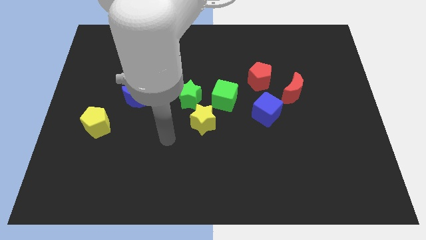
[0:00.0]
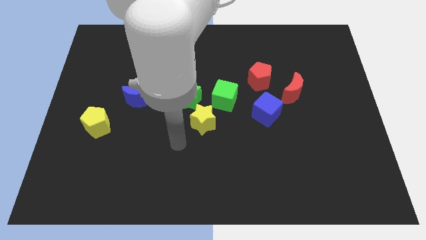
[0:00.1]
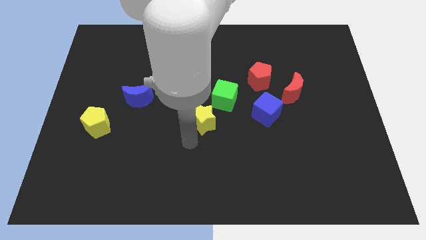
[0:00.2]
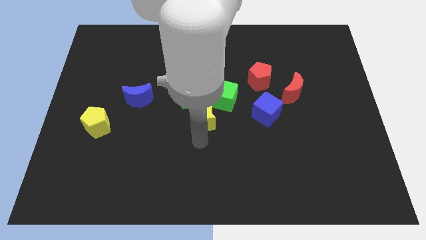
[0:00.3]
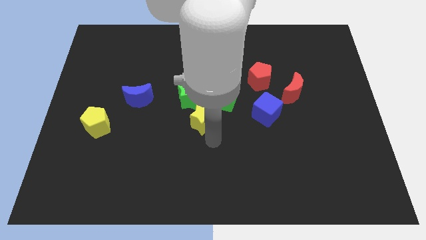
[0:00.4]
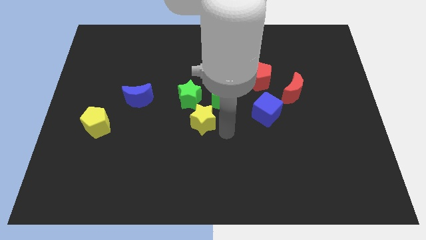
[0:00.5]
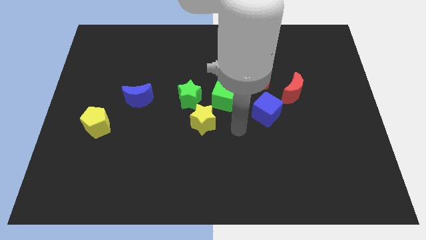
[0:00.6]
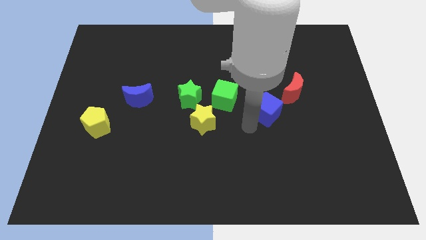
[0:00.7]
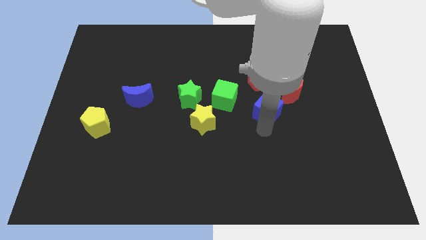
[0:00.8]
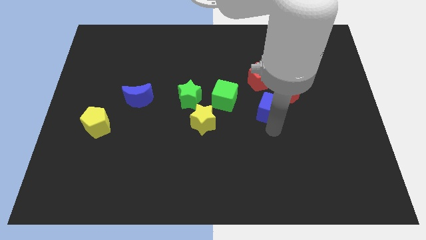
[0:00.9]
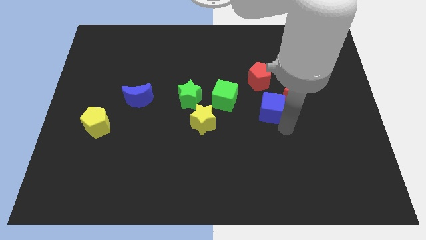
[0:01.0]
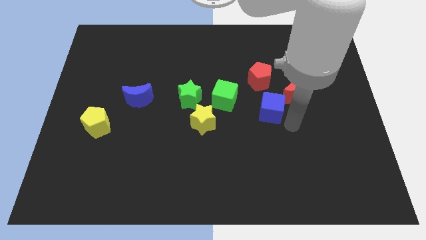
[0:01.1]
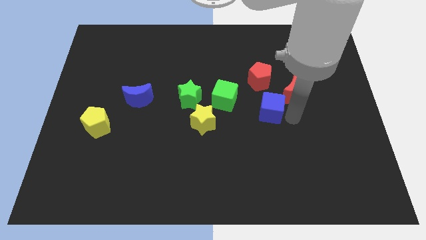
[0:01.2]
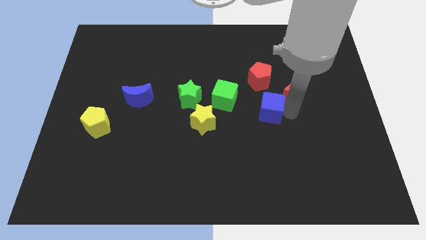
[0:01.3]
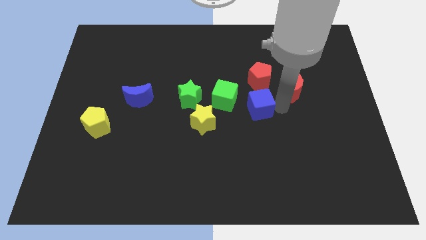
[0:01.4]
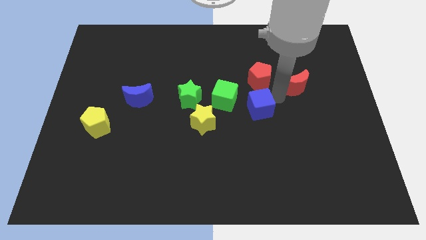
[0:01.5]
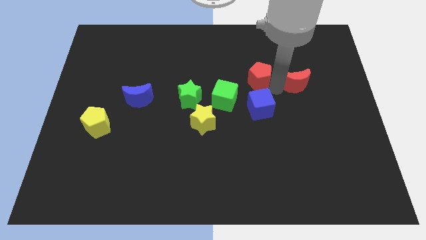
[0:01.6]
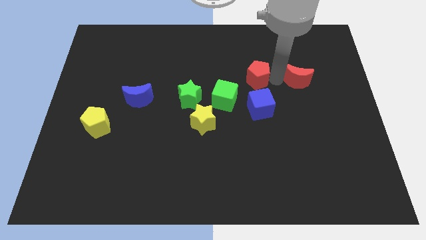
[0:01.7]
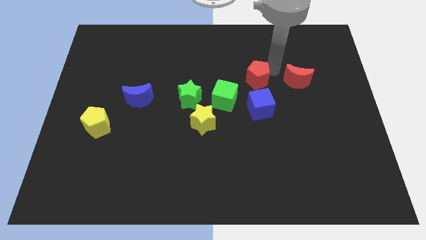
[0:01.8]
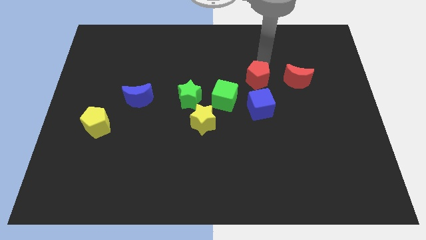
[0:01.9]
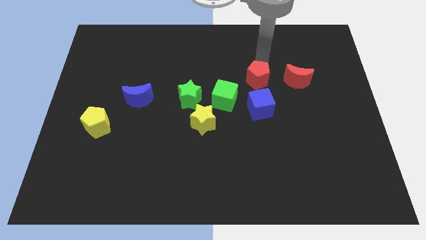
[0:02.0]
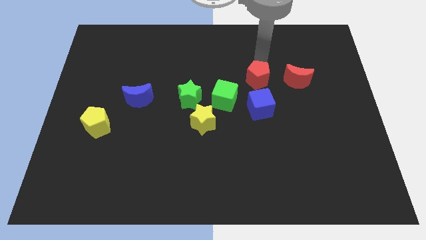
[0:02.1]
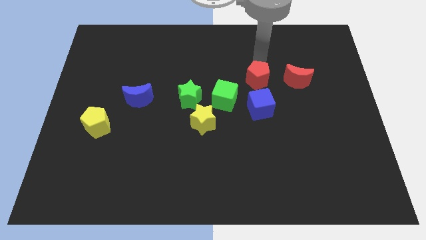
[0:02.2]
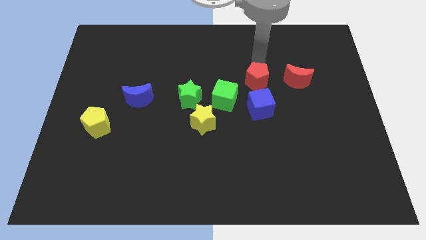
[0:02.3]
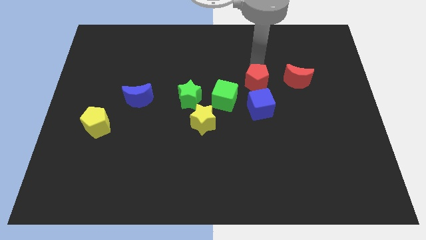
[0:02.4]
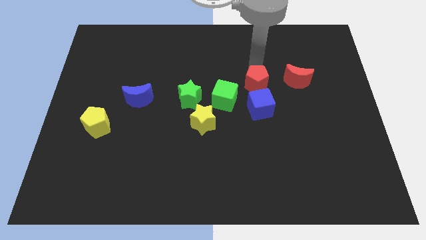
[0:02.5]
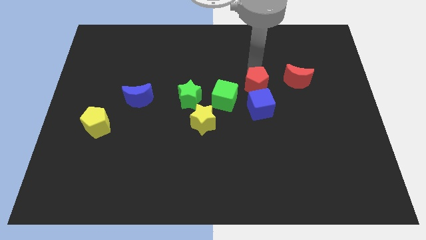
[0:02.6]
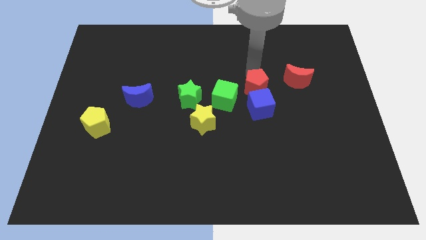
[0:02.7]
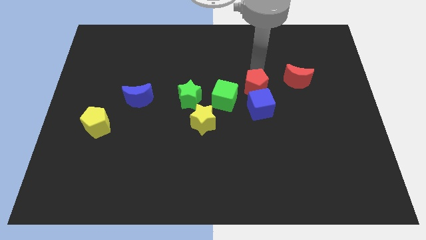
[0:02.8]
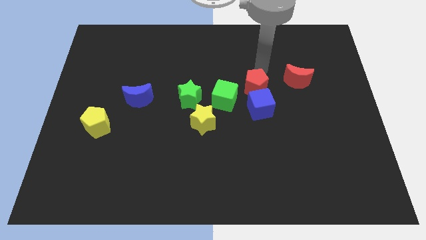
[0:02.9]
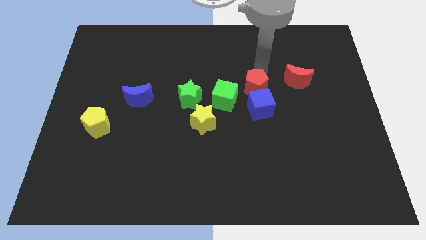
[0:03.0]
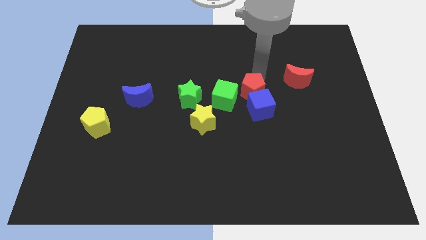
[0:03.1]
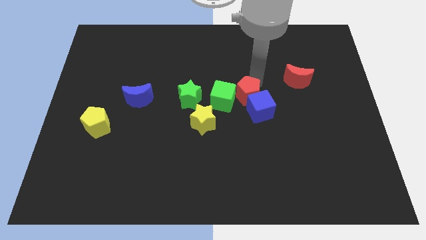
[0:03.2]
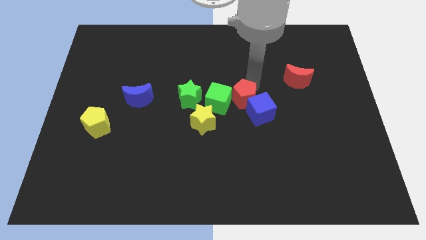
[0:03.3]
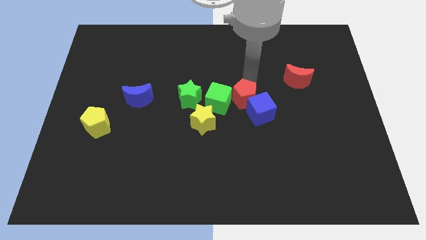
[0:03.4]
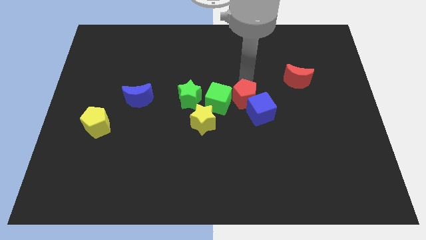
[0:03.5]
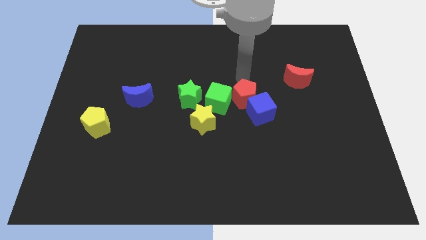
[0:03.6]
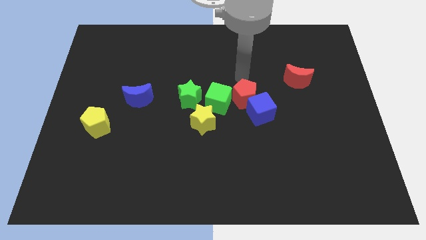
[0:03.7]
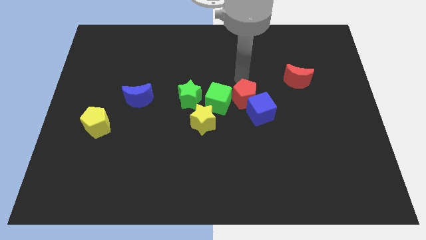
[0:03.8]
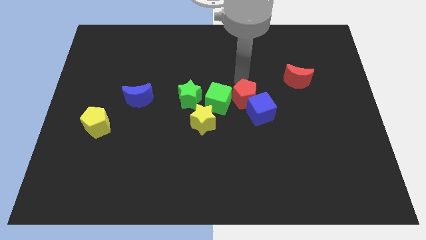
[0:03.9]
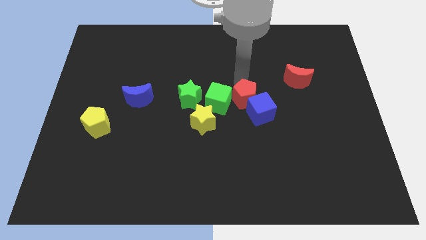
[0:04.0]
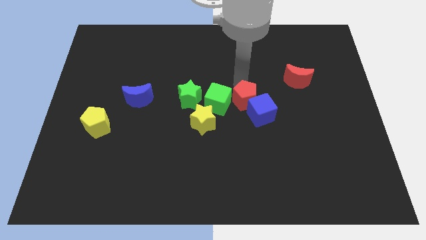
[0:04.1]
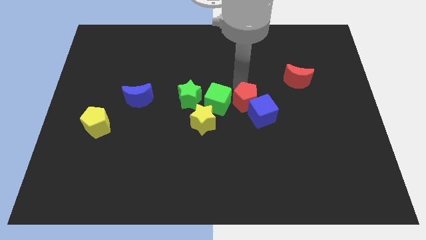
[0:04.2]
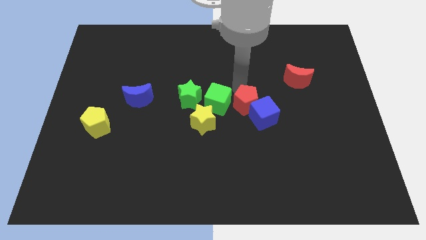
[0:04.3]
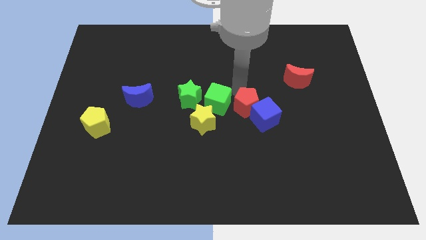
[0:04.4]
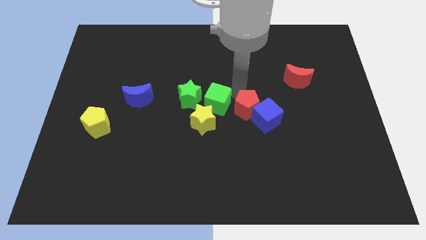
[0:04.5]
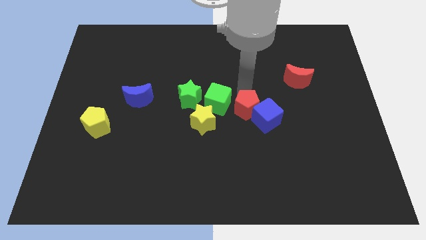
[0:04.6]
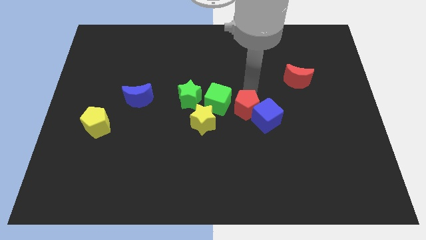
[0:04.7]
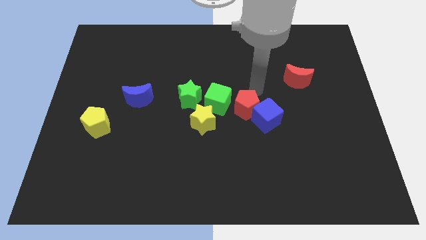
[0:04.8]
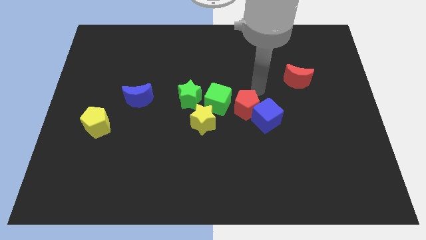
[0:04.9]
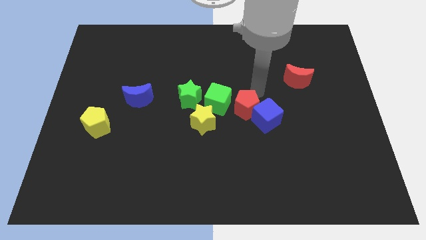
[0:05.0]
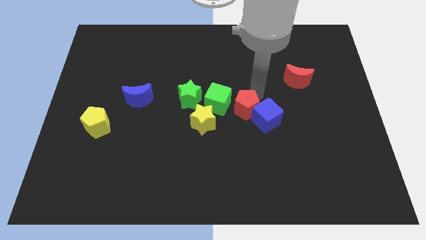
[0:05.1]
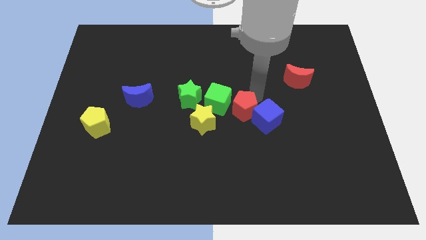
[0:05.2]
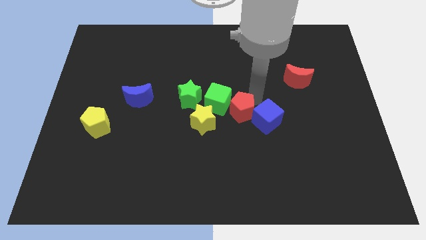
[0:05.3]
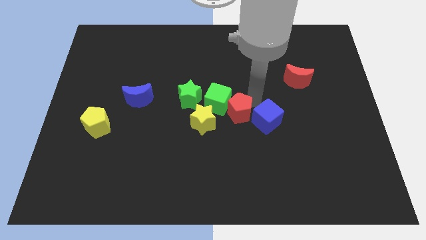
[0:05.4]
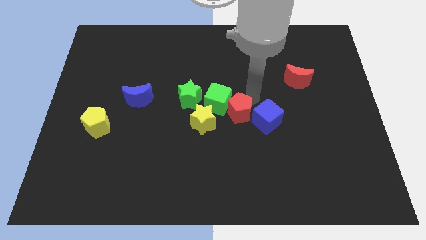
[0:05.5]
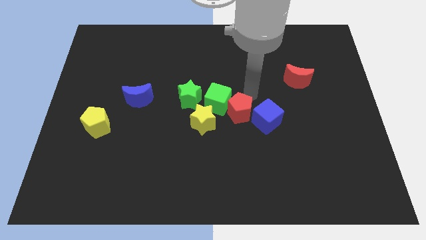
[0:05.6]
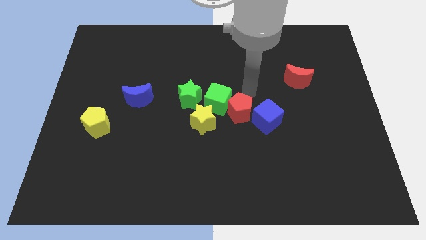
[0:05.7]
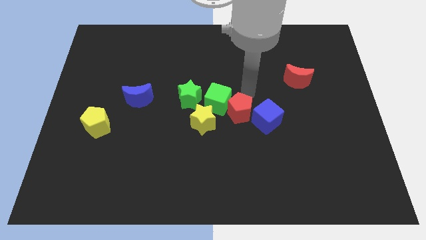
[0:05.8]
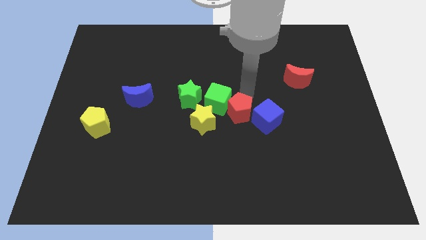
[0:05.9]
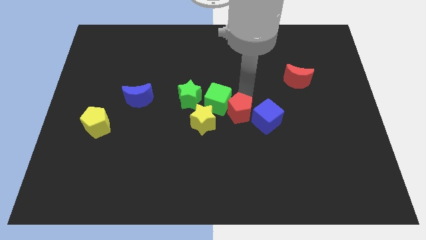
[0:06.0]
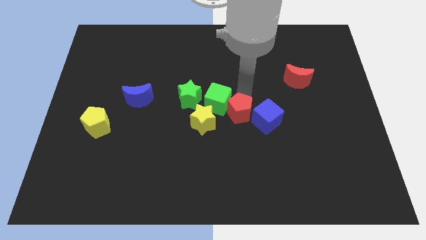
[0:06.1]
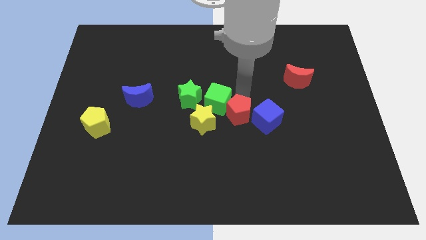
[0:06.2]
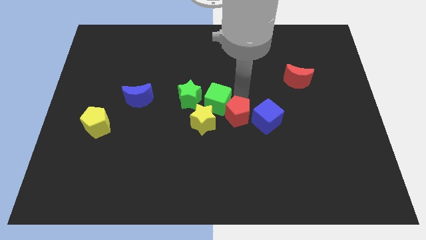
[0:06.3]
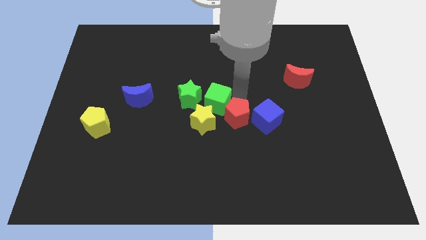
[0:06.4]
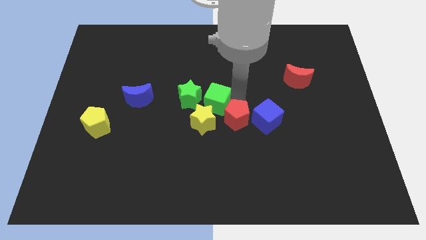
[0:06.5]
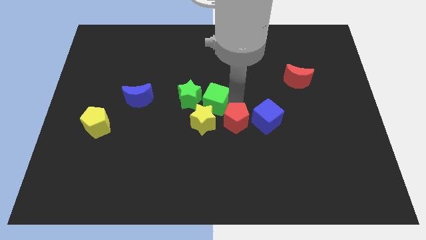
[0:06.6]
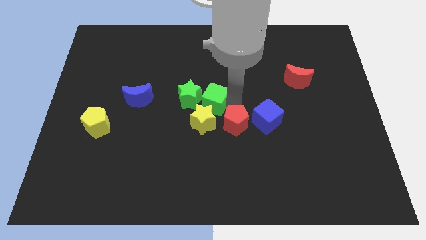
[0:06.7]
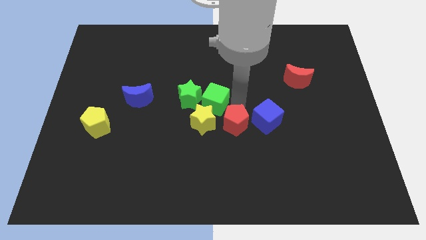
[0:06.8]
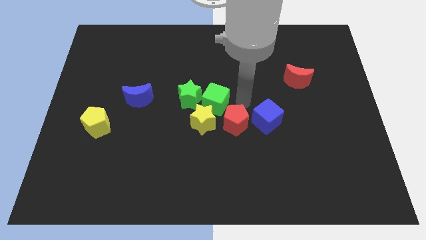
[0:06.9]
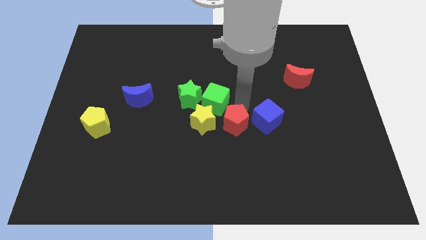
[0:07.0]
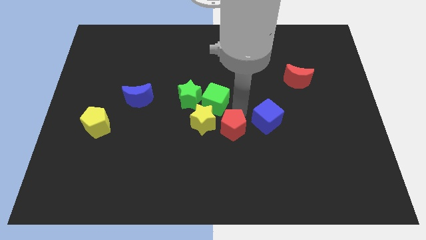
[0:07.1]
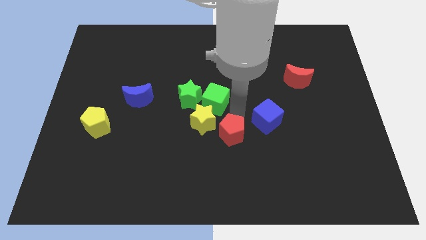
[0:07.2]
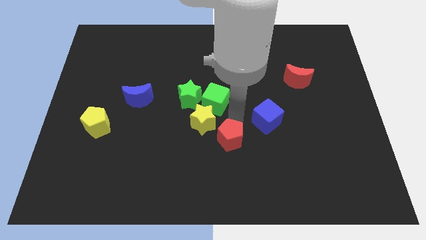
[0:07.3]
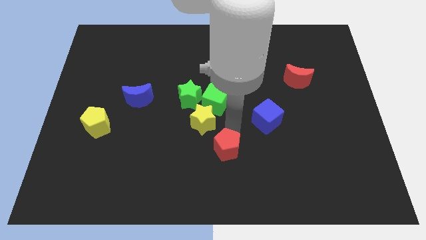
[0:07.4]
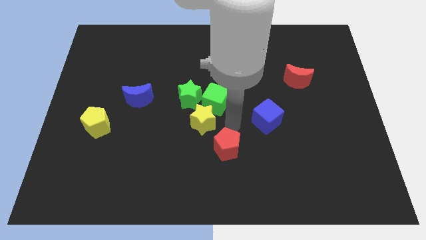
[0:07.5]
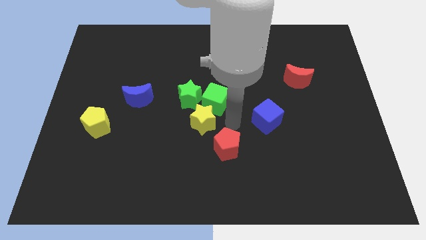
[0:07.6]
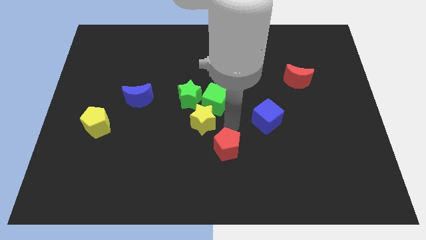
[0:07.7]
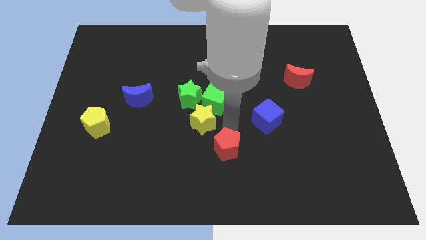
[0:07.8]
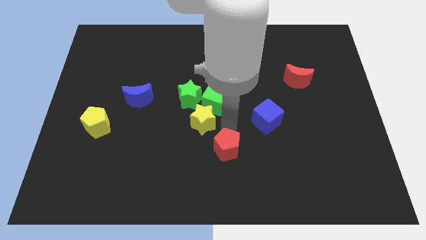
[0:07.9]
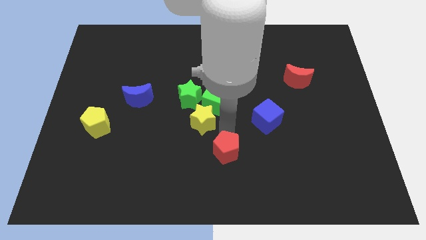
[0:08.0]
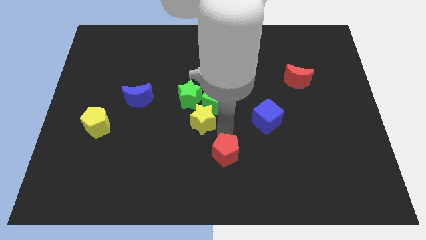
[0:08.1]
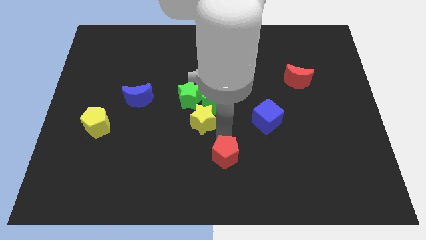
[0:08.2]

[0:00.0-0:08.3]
push the red pentagon to the bottom

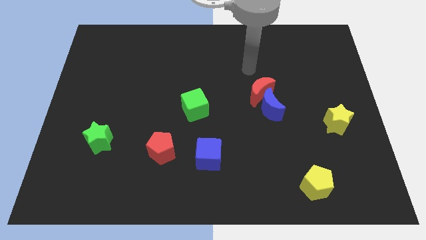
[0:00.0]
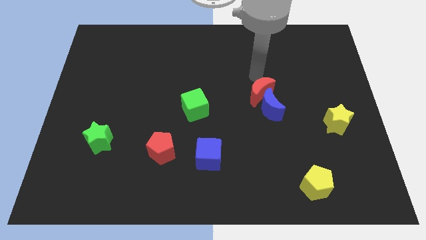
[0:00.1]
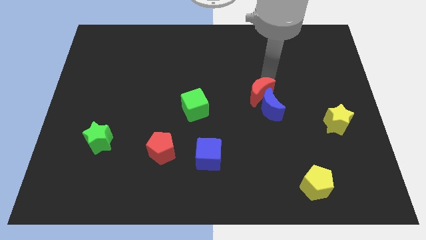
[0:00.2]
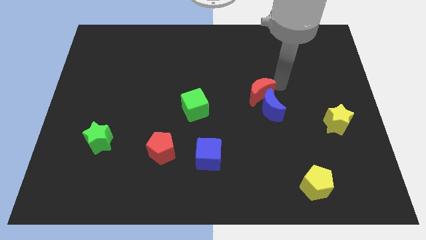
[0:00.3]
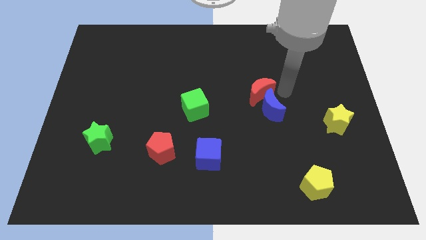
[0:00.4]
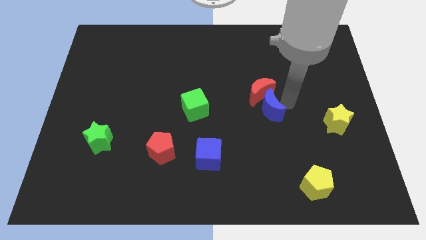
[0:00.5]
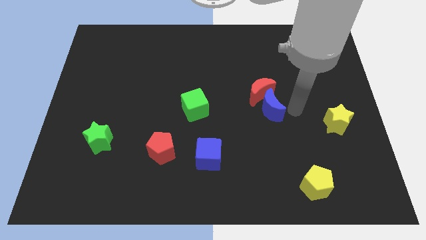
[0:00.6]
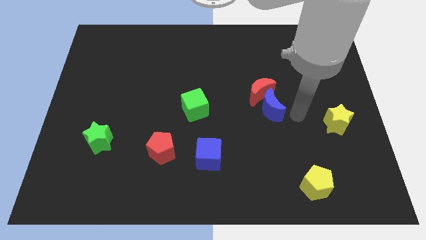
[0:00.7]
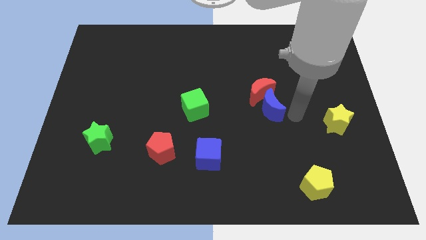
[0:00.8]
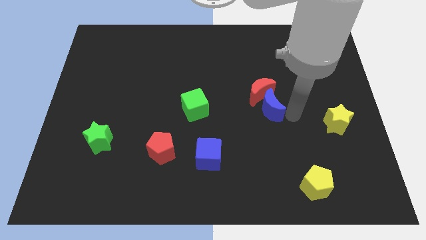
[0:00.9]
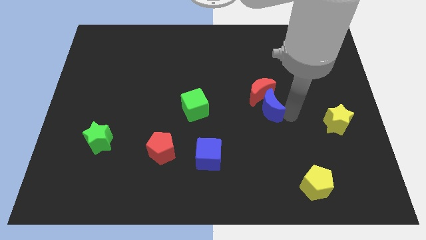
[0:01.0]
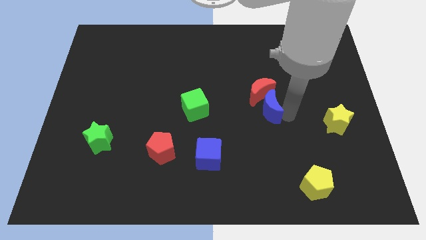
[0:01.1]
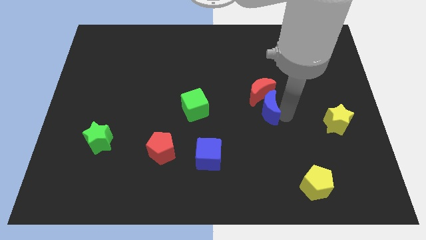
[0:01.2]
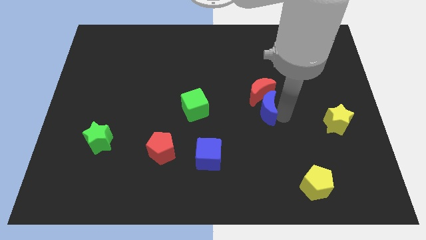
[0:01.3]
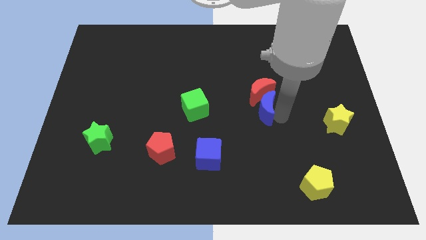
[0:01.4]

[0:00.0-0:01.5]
move the blue moon to the middle
